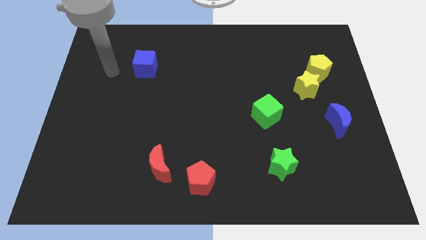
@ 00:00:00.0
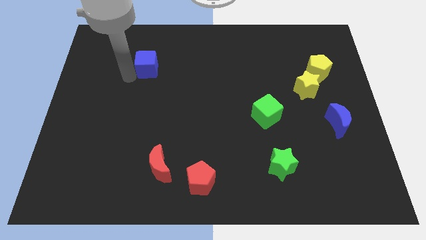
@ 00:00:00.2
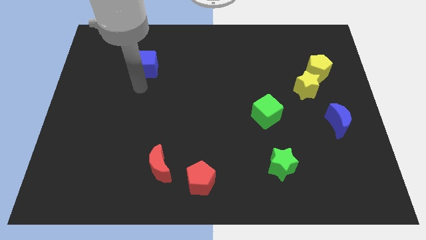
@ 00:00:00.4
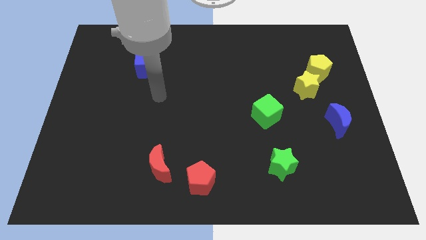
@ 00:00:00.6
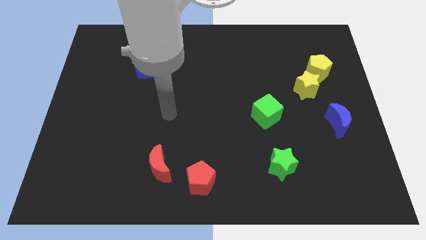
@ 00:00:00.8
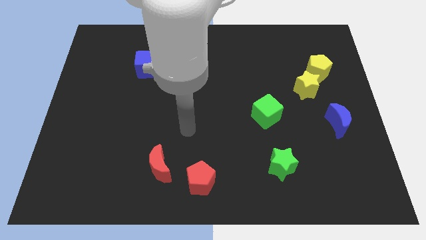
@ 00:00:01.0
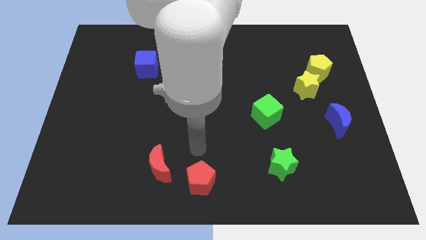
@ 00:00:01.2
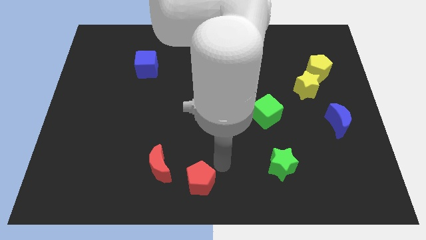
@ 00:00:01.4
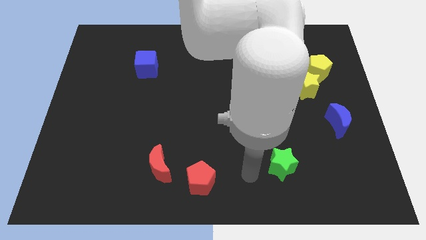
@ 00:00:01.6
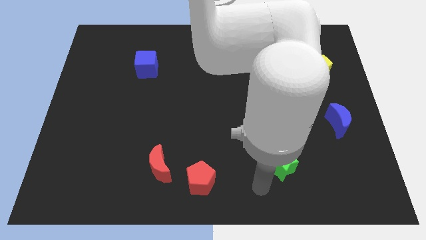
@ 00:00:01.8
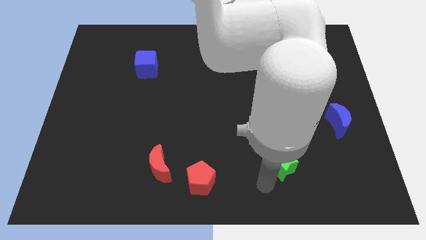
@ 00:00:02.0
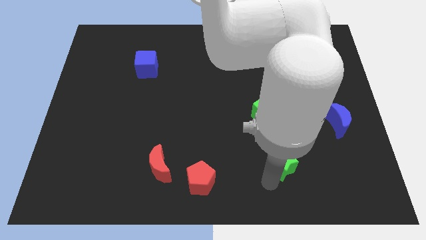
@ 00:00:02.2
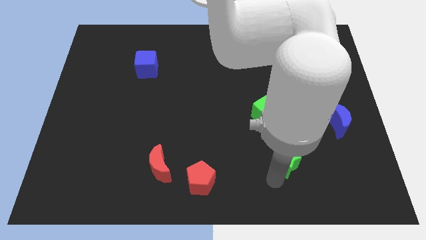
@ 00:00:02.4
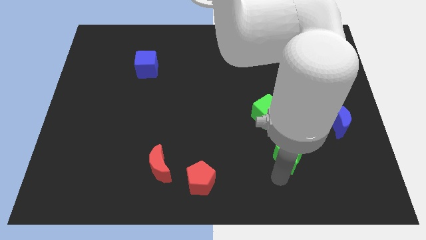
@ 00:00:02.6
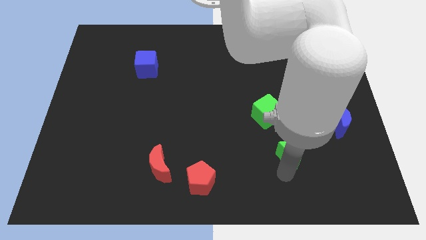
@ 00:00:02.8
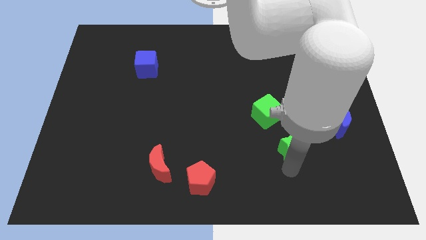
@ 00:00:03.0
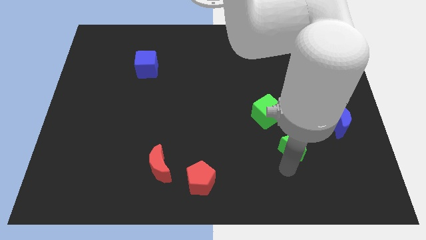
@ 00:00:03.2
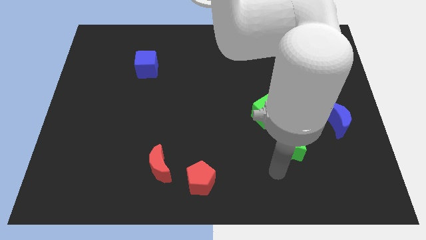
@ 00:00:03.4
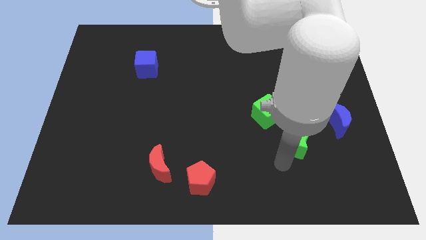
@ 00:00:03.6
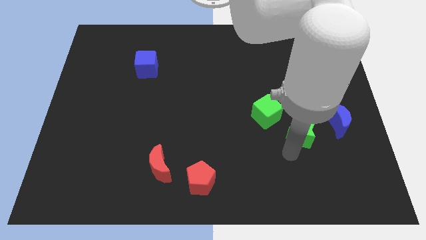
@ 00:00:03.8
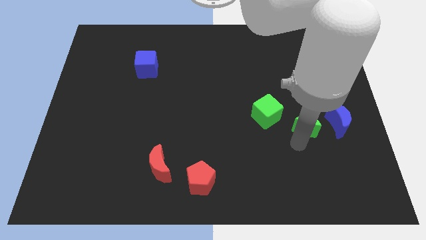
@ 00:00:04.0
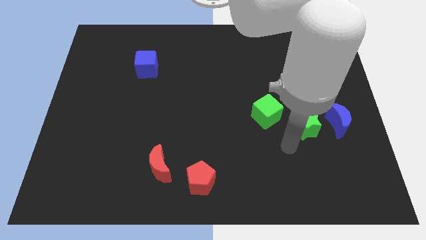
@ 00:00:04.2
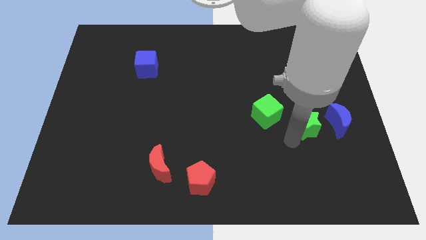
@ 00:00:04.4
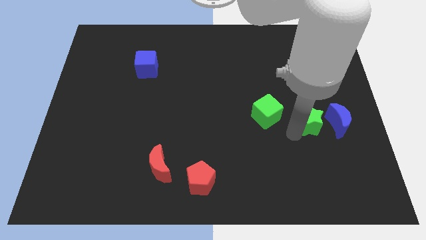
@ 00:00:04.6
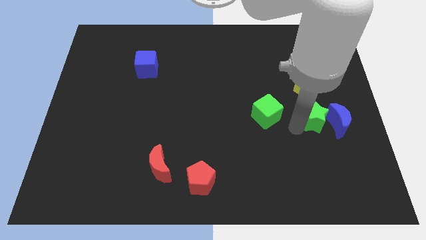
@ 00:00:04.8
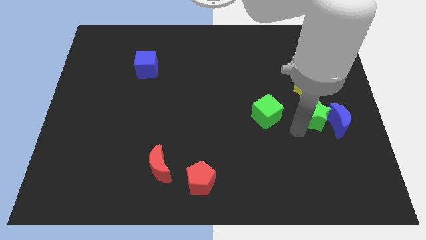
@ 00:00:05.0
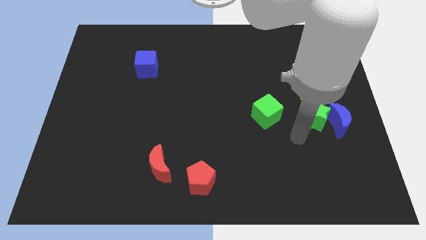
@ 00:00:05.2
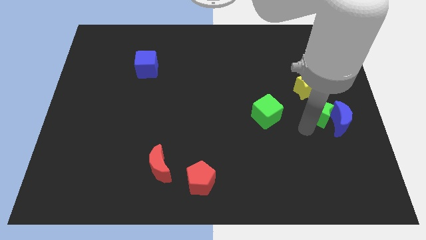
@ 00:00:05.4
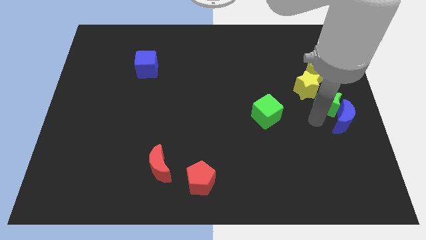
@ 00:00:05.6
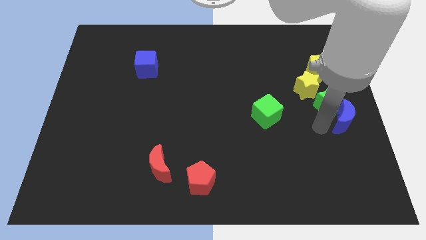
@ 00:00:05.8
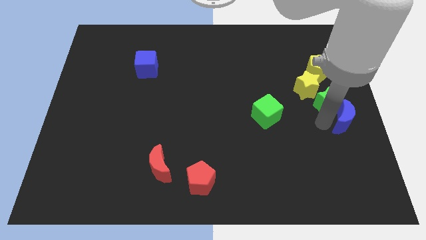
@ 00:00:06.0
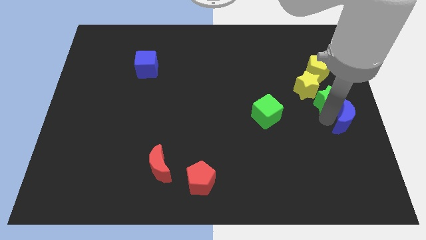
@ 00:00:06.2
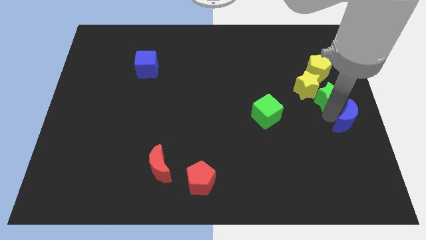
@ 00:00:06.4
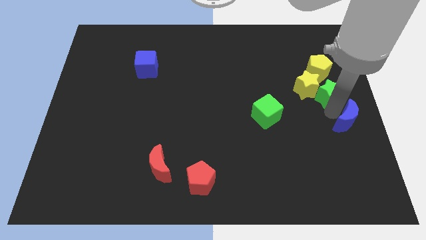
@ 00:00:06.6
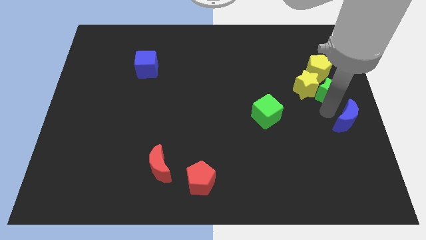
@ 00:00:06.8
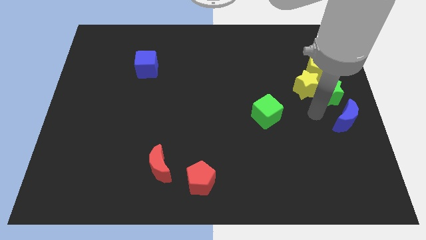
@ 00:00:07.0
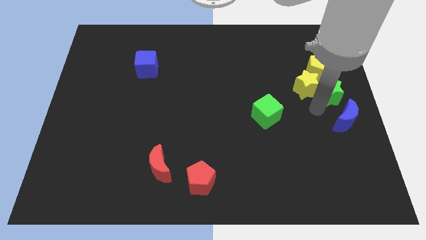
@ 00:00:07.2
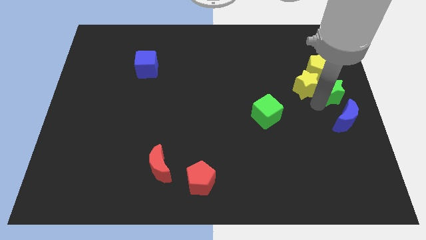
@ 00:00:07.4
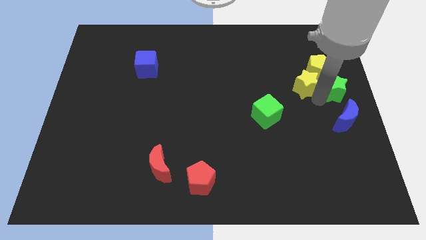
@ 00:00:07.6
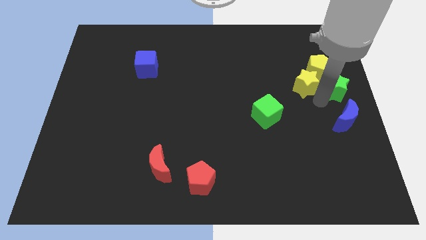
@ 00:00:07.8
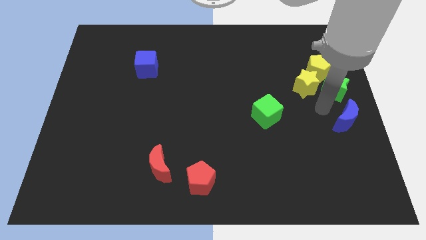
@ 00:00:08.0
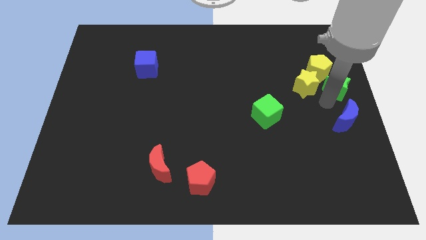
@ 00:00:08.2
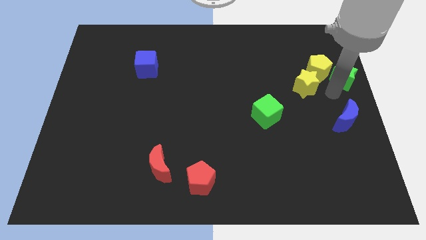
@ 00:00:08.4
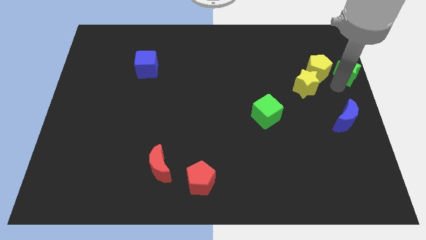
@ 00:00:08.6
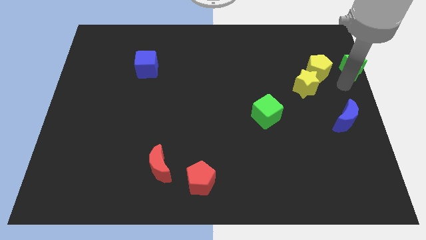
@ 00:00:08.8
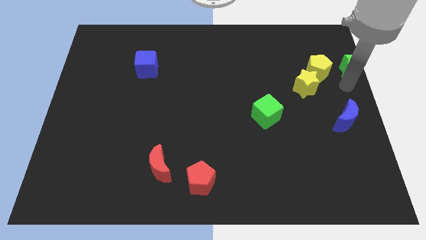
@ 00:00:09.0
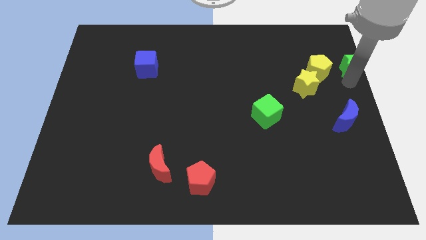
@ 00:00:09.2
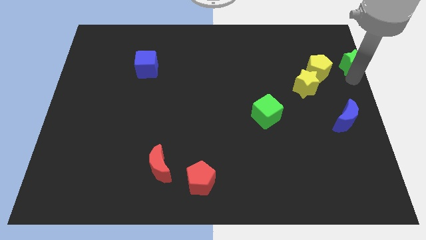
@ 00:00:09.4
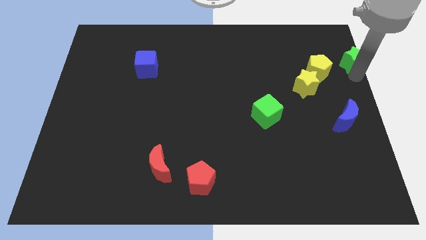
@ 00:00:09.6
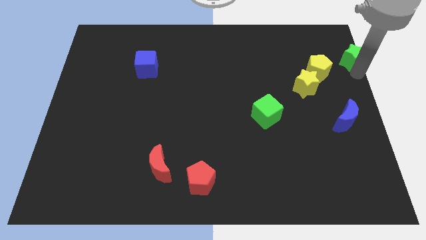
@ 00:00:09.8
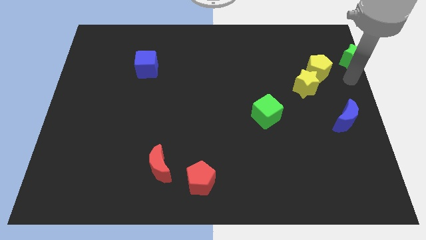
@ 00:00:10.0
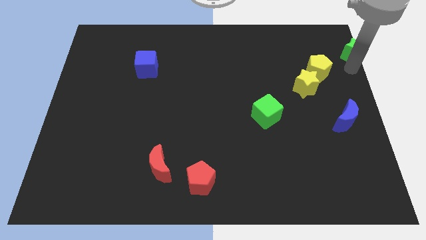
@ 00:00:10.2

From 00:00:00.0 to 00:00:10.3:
move the green star to the upper right corner
